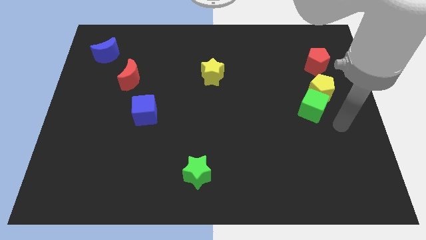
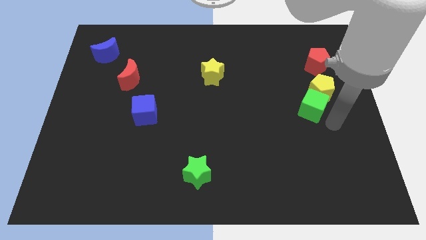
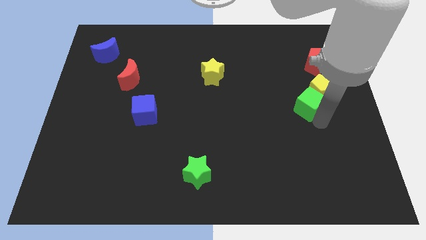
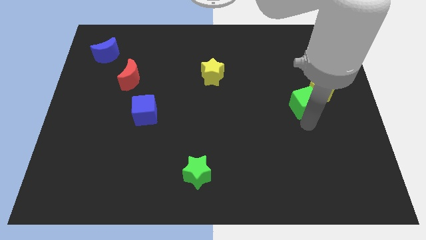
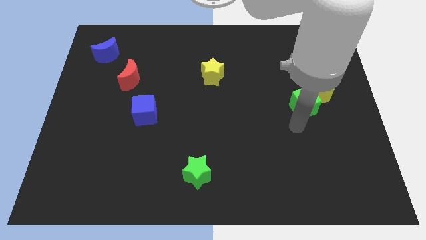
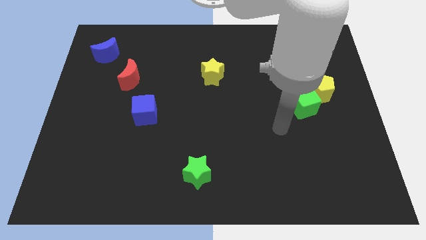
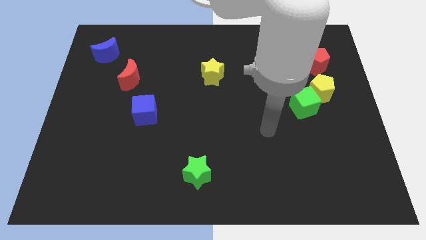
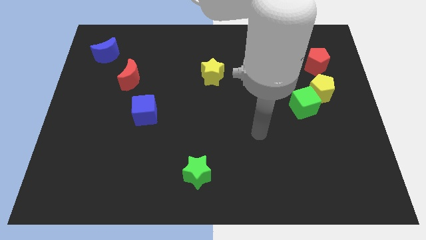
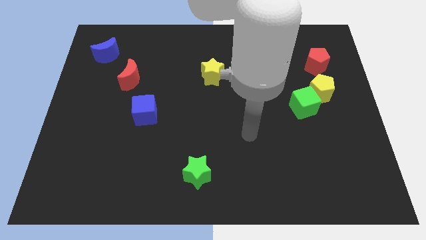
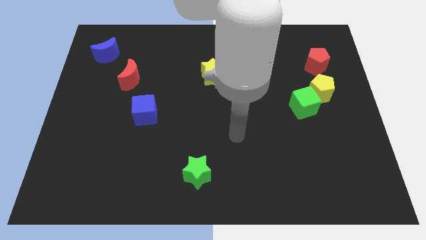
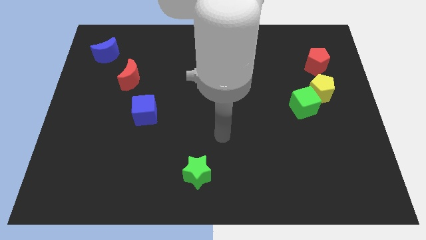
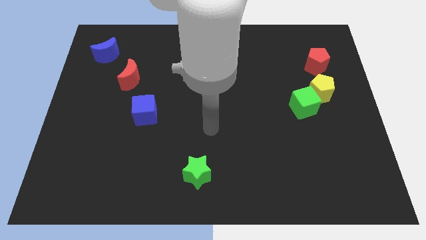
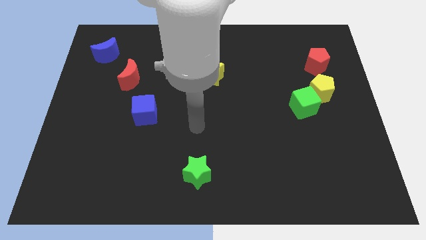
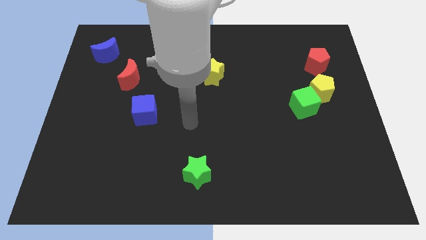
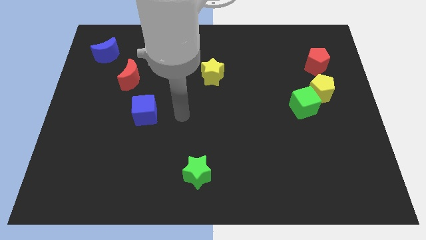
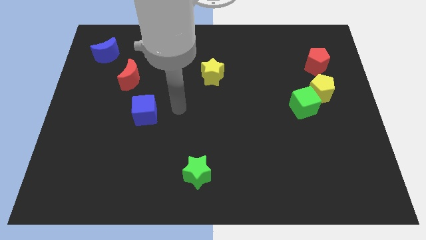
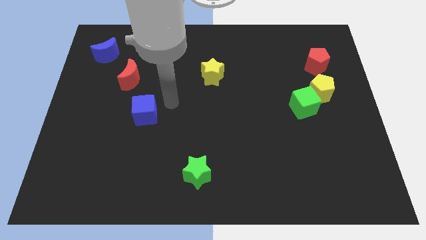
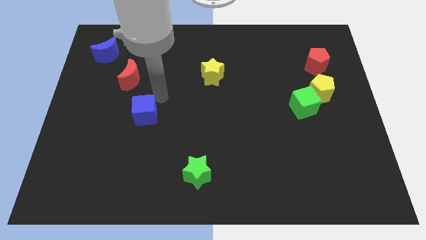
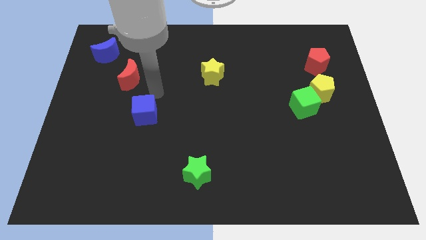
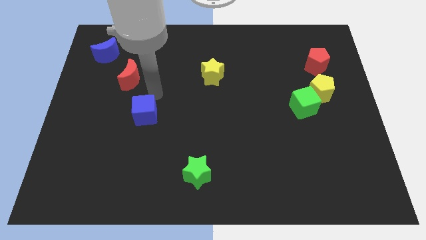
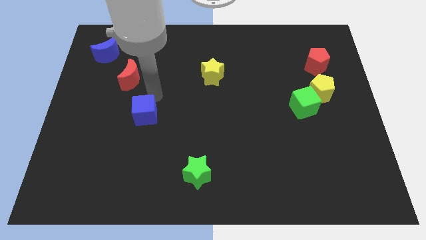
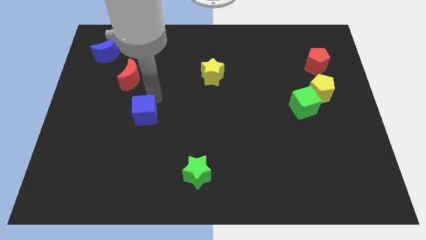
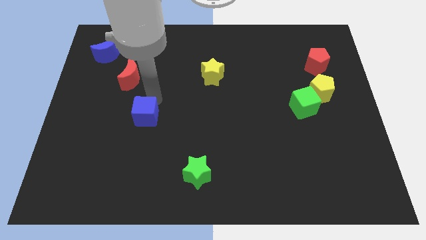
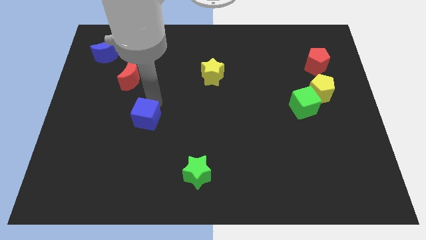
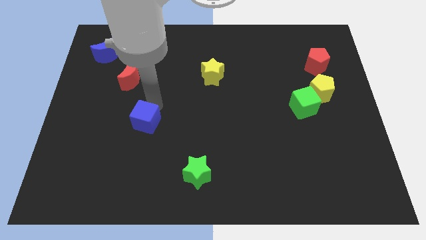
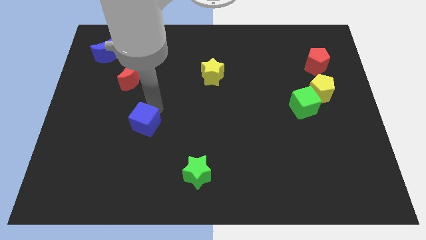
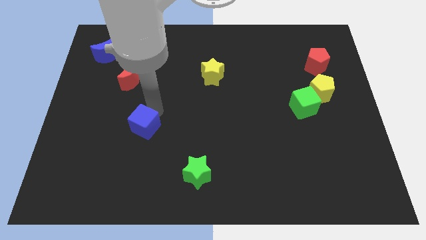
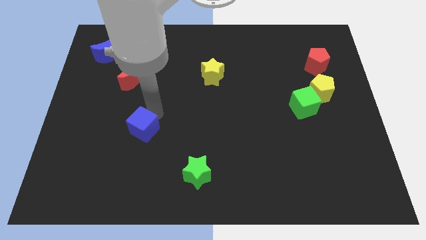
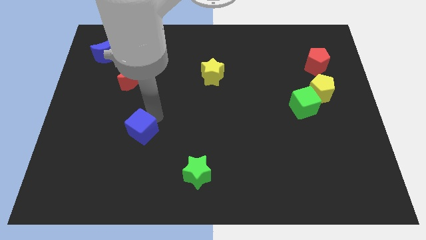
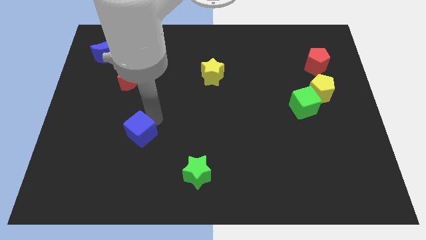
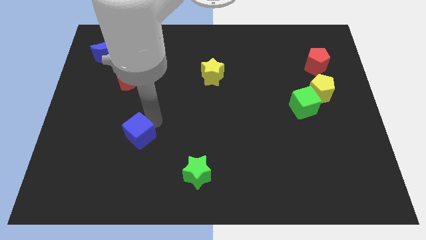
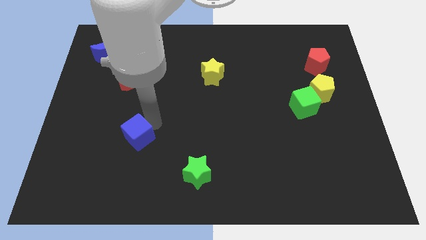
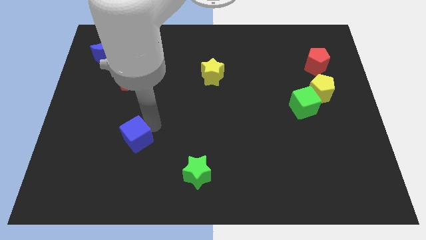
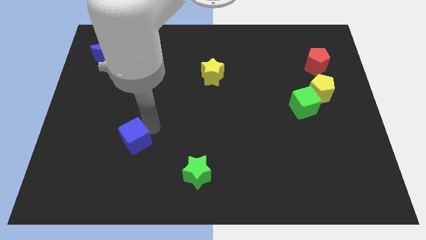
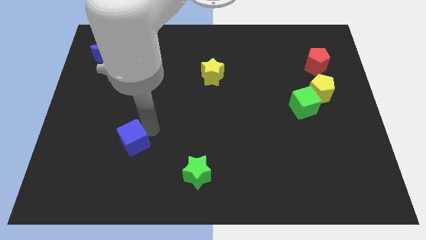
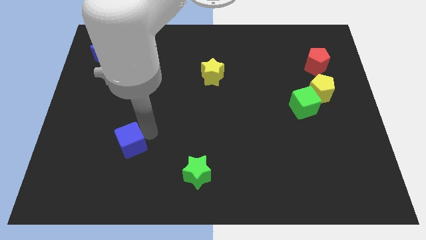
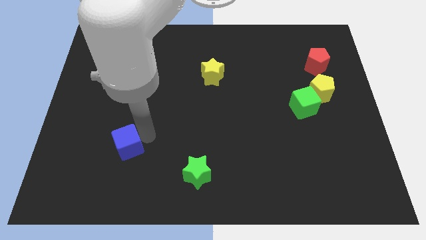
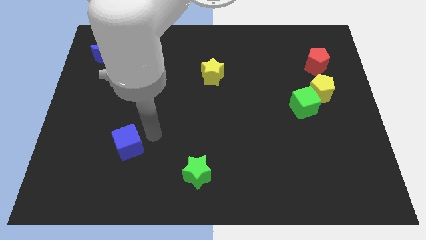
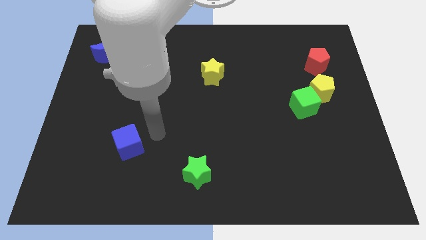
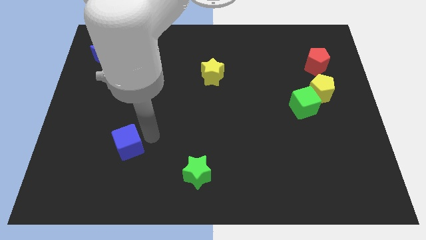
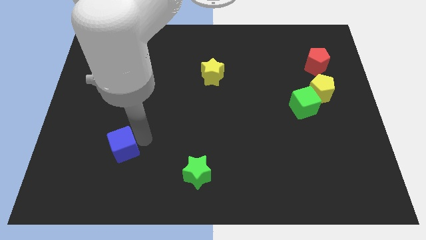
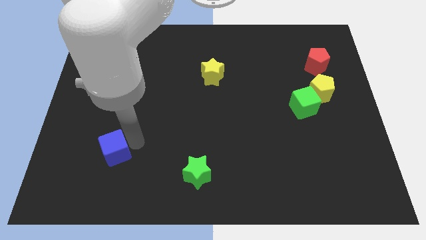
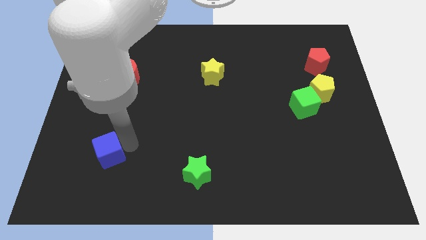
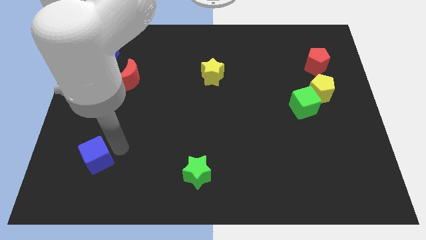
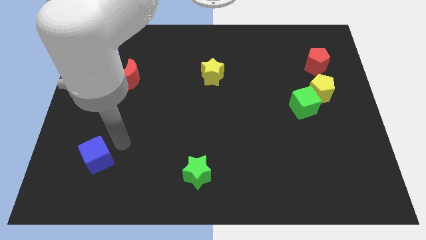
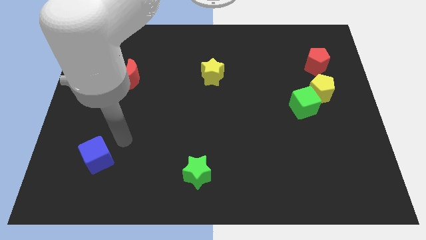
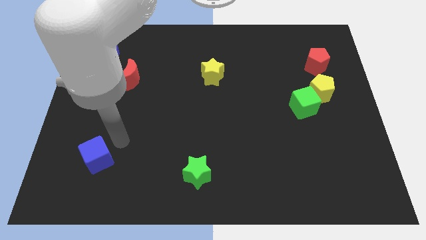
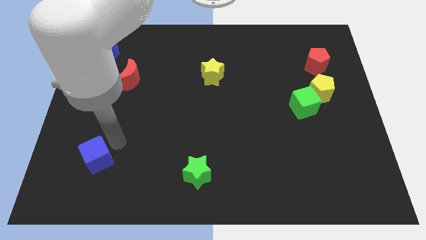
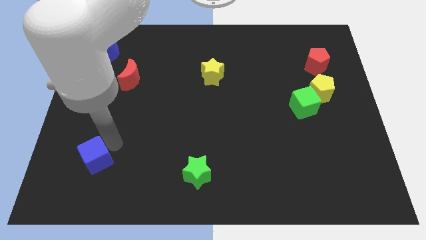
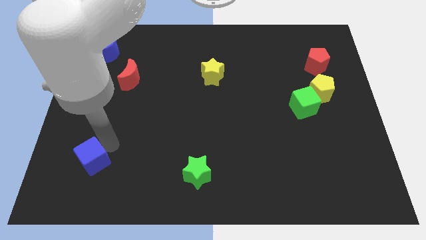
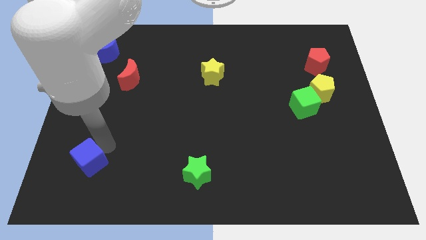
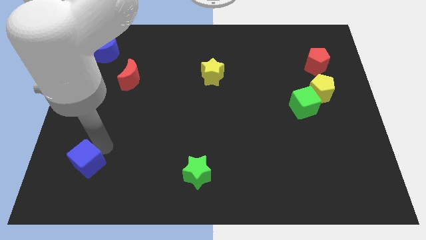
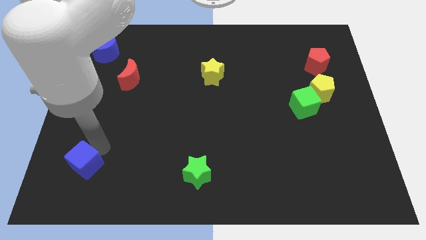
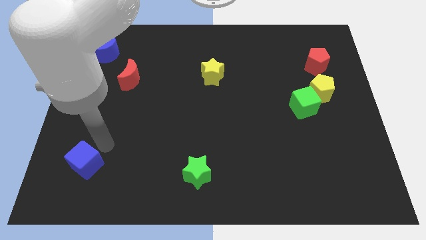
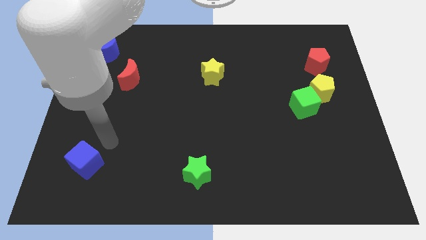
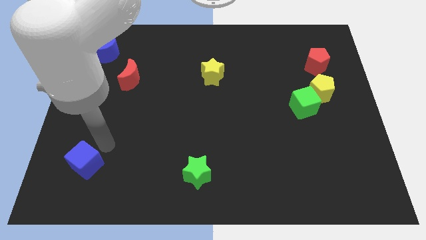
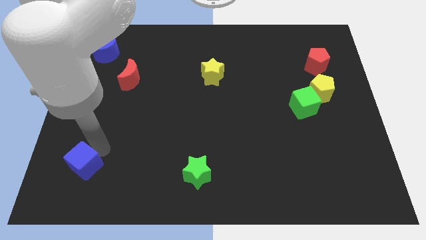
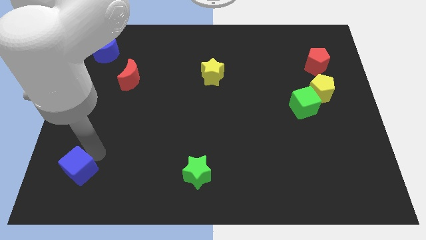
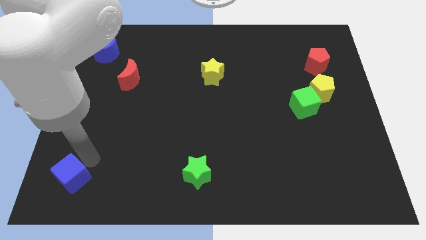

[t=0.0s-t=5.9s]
slide the blue cube to the bottom left corner
